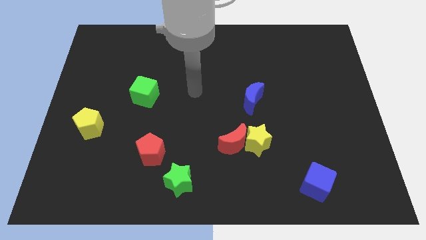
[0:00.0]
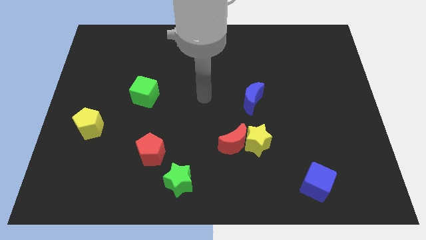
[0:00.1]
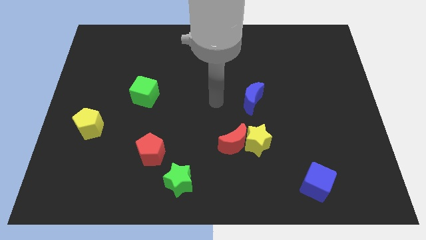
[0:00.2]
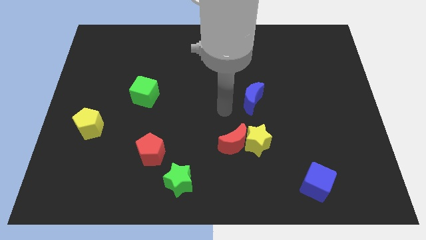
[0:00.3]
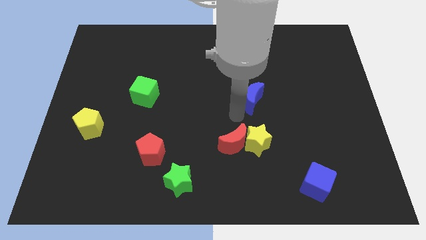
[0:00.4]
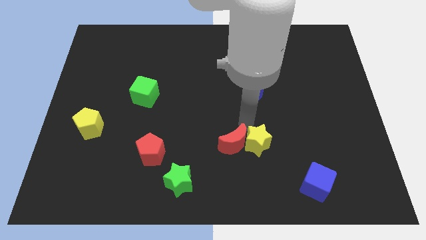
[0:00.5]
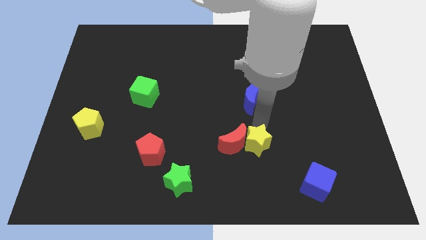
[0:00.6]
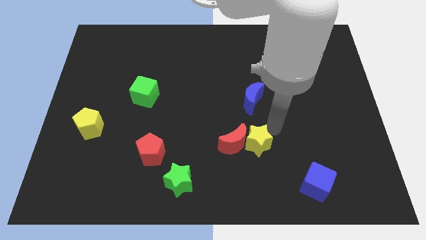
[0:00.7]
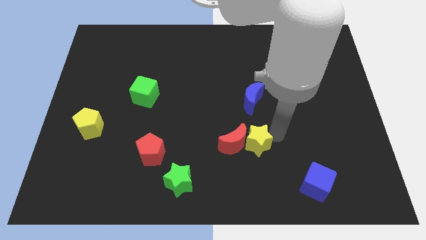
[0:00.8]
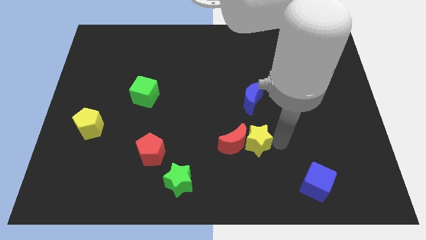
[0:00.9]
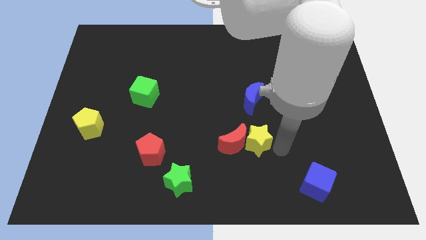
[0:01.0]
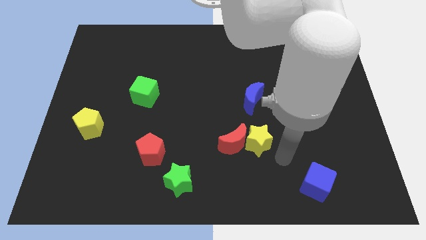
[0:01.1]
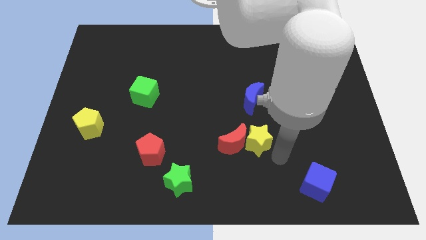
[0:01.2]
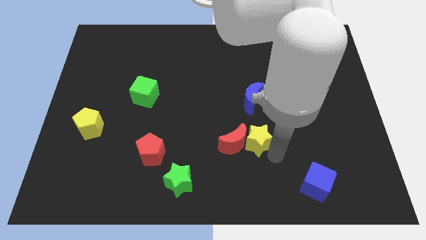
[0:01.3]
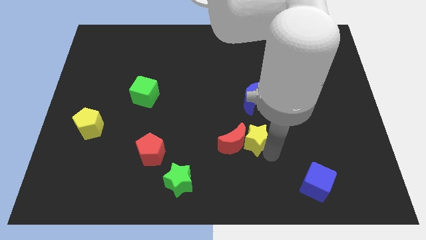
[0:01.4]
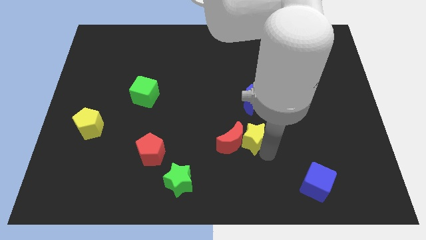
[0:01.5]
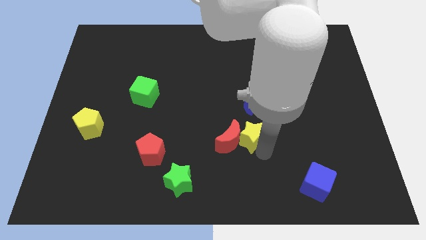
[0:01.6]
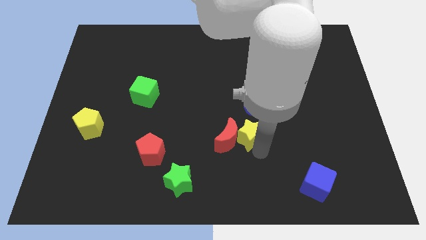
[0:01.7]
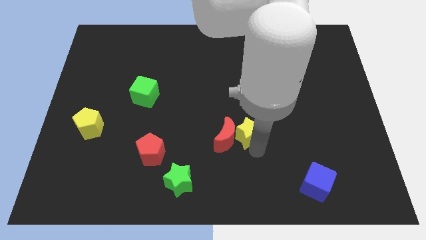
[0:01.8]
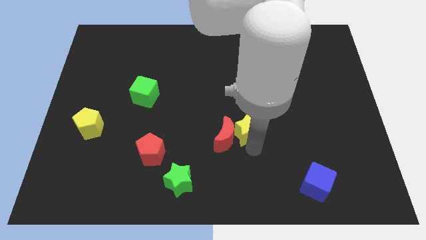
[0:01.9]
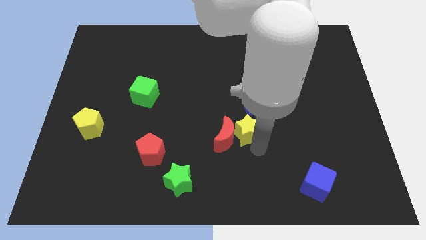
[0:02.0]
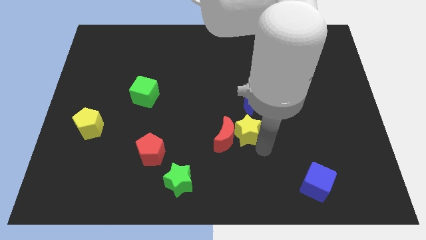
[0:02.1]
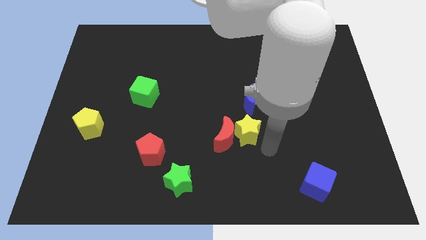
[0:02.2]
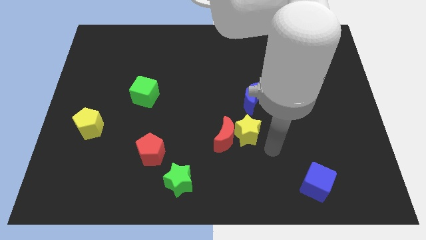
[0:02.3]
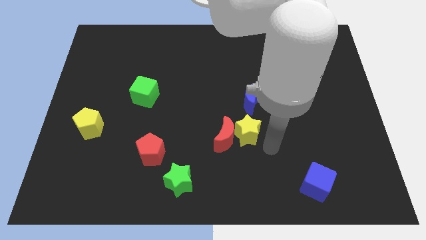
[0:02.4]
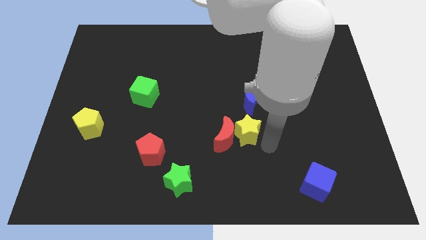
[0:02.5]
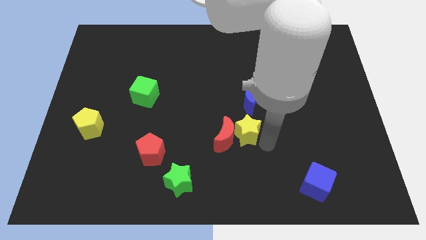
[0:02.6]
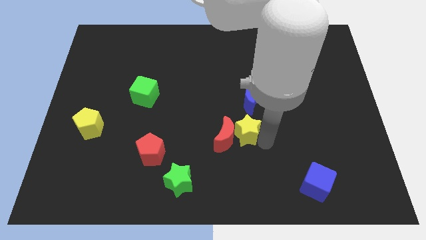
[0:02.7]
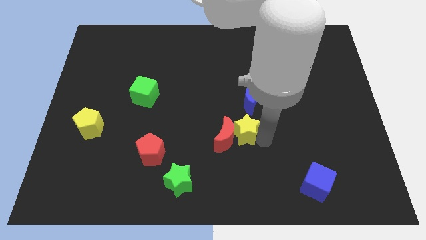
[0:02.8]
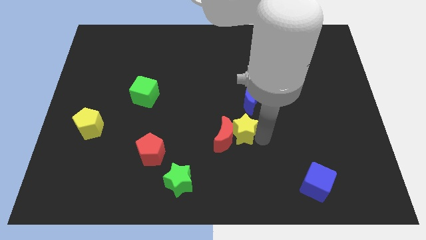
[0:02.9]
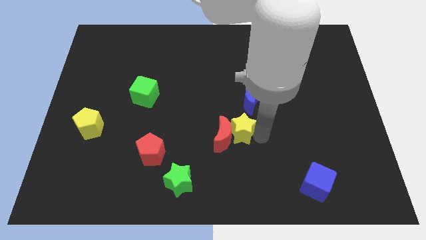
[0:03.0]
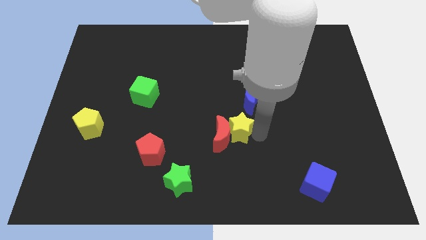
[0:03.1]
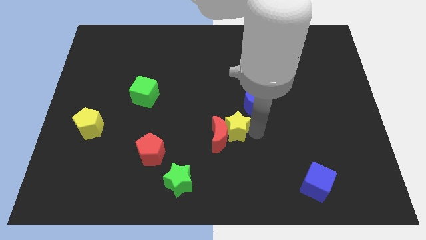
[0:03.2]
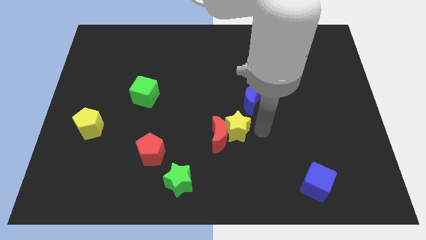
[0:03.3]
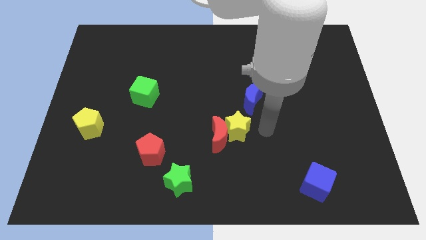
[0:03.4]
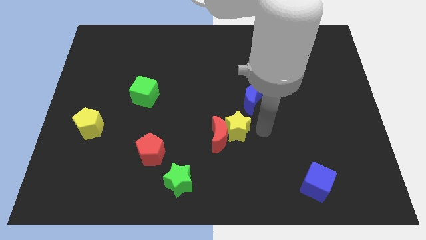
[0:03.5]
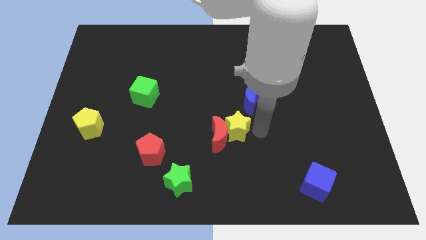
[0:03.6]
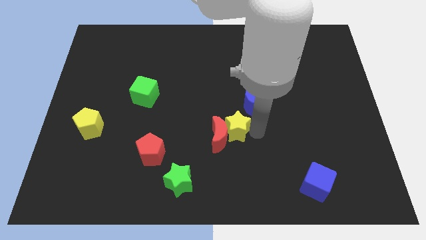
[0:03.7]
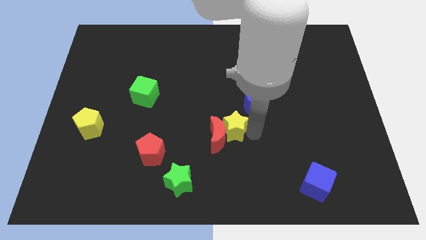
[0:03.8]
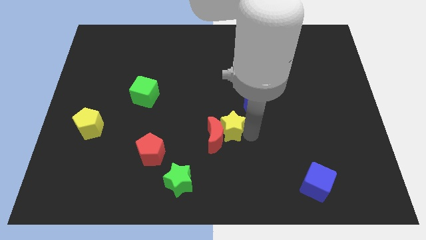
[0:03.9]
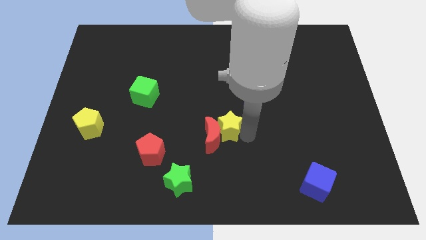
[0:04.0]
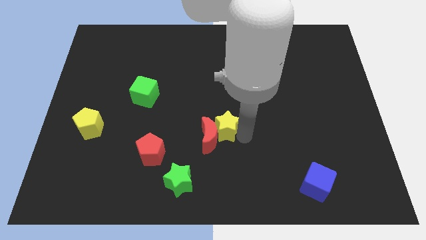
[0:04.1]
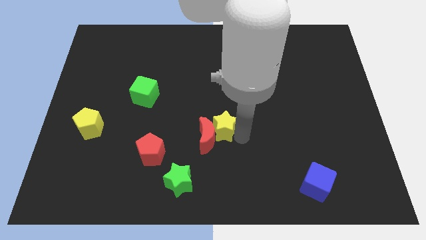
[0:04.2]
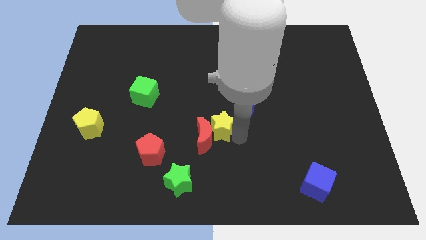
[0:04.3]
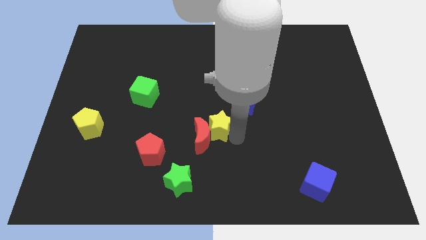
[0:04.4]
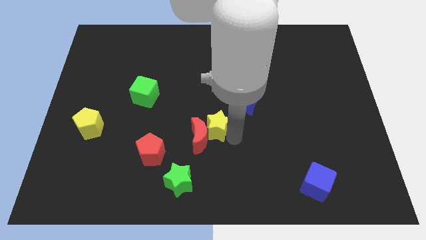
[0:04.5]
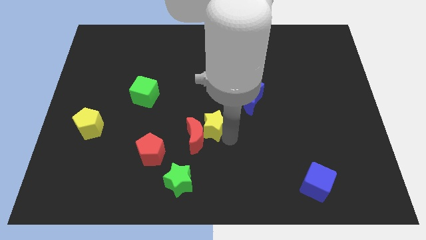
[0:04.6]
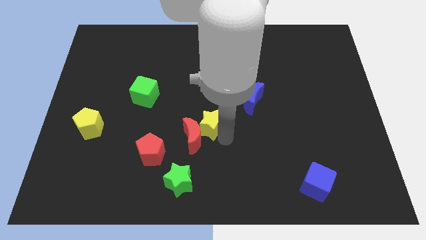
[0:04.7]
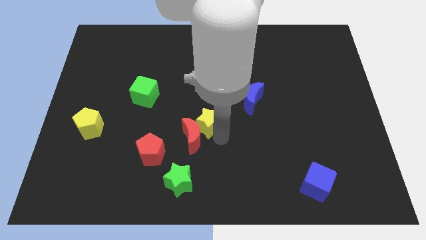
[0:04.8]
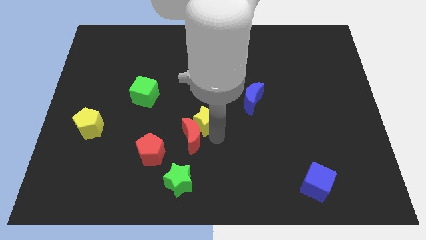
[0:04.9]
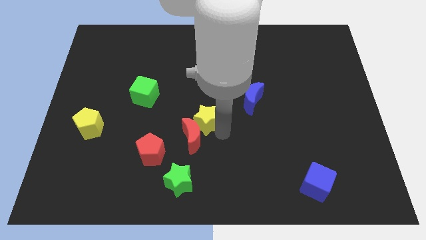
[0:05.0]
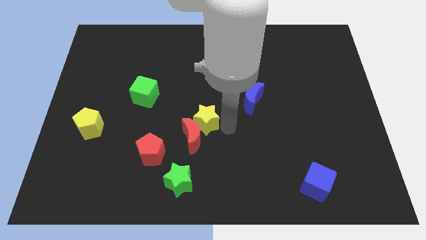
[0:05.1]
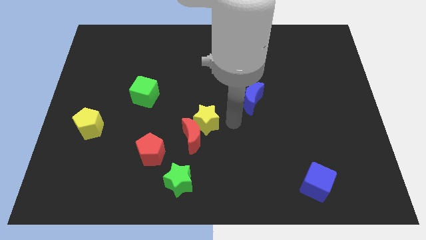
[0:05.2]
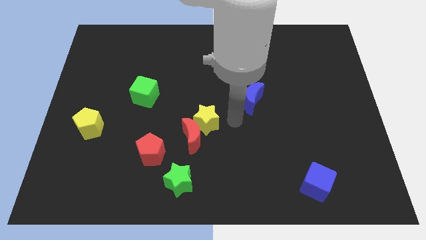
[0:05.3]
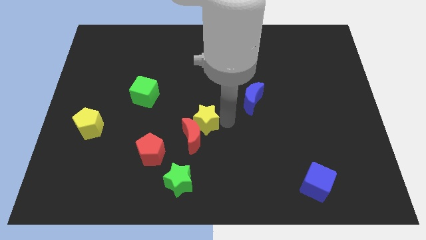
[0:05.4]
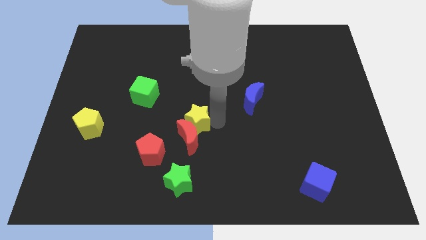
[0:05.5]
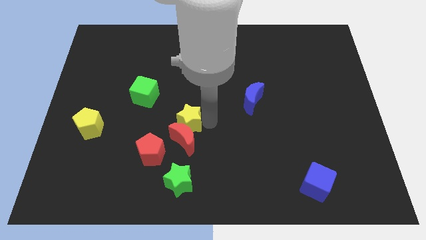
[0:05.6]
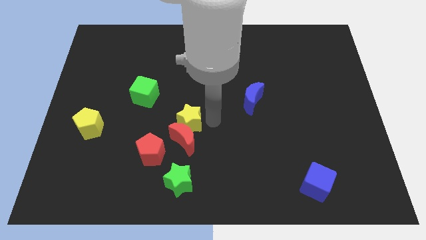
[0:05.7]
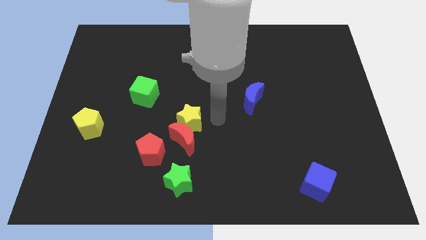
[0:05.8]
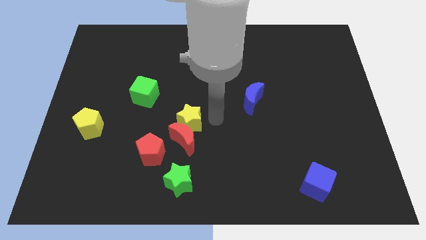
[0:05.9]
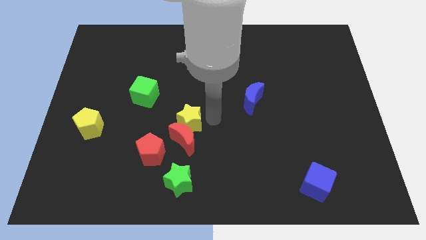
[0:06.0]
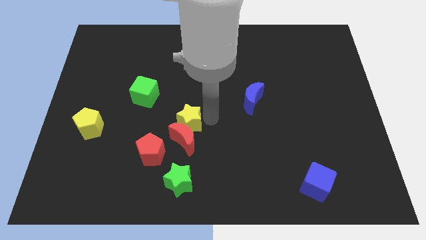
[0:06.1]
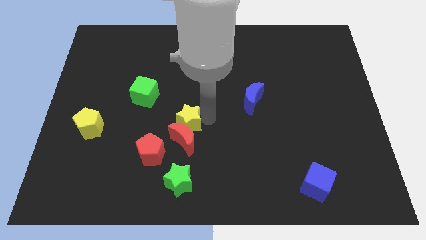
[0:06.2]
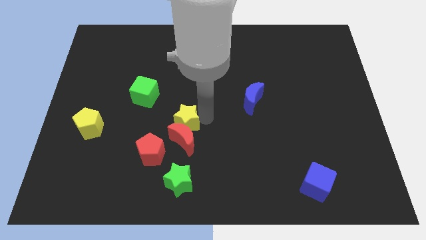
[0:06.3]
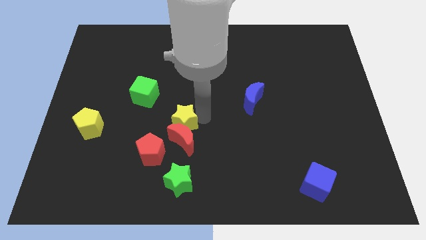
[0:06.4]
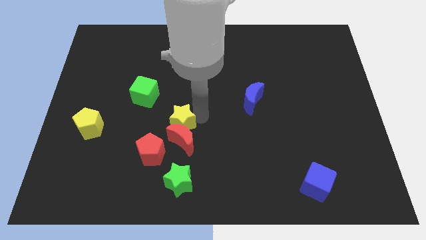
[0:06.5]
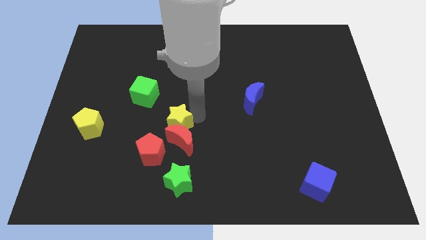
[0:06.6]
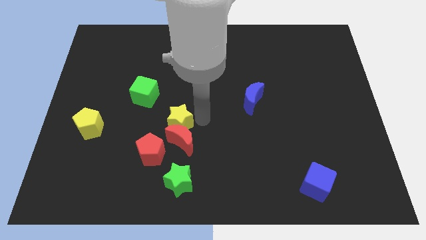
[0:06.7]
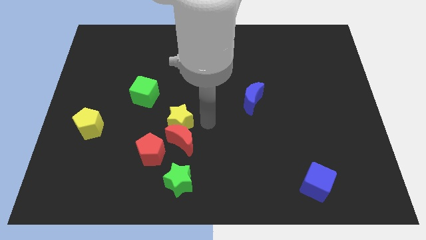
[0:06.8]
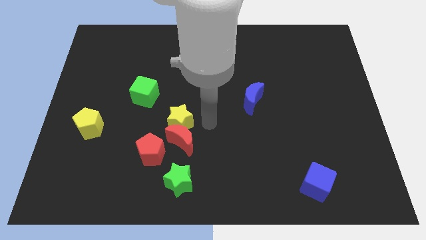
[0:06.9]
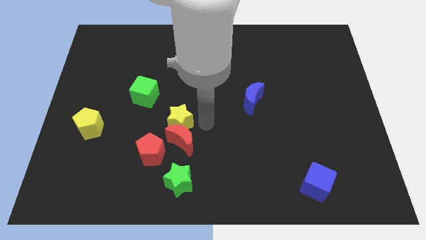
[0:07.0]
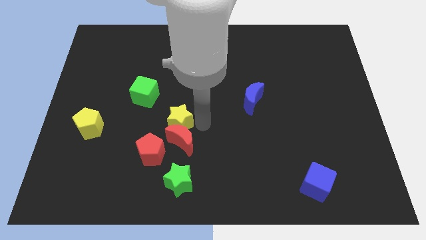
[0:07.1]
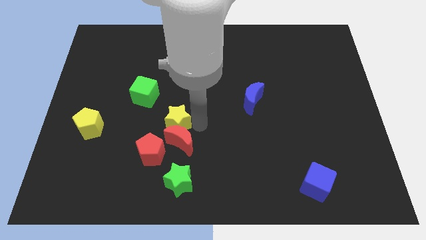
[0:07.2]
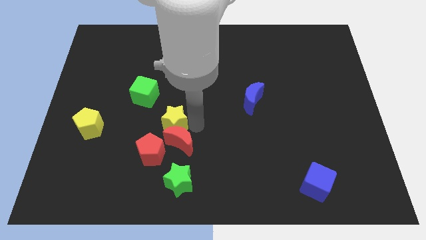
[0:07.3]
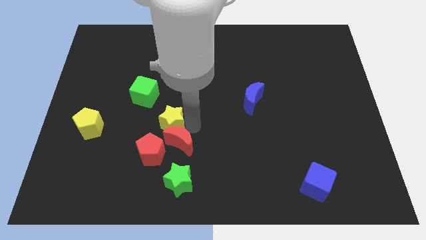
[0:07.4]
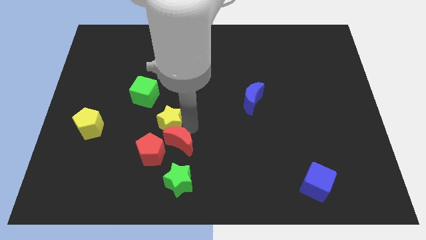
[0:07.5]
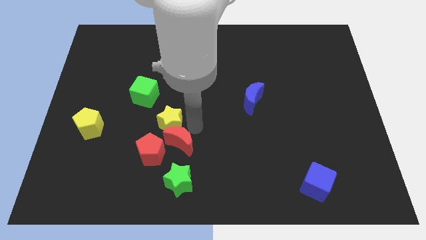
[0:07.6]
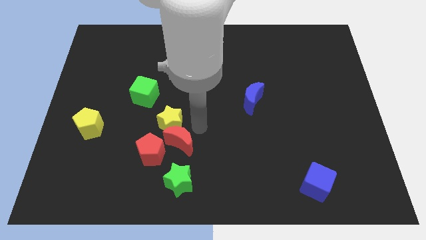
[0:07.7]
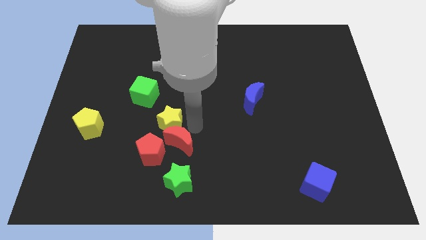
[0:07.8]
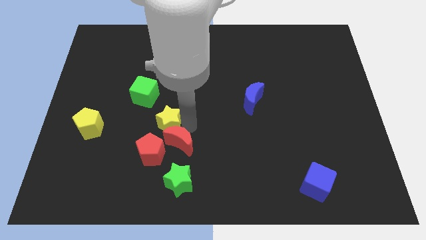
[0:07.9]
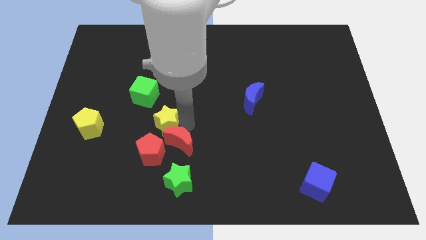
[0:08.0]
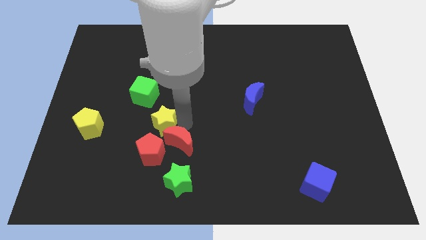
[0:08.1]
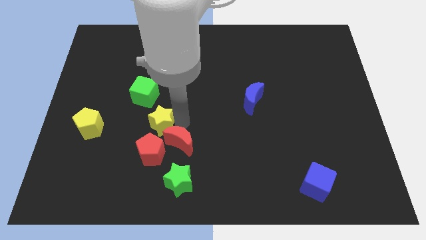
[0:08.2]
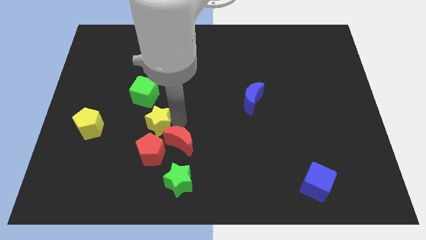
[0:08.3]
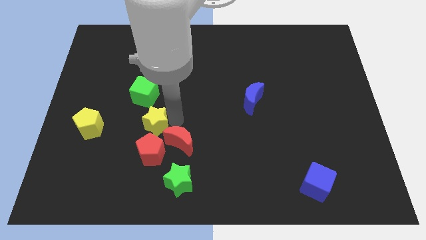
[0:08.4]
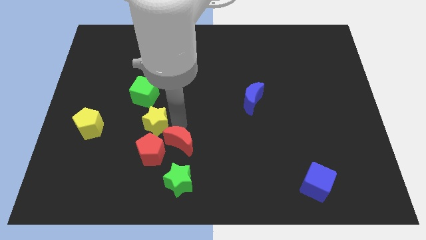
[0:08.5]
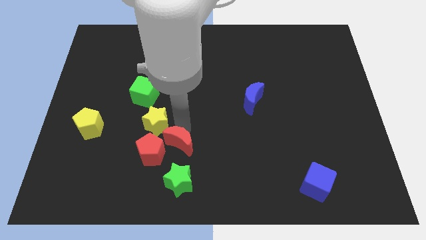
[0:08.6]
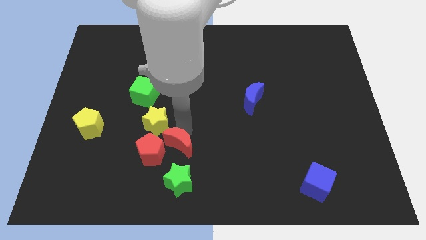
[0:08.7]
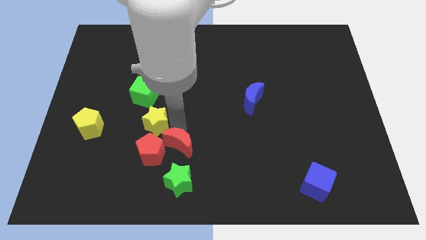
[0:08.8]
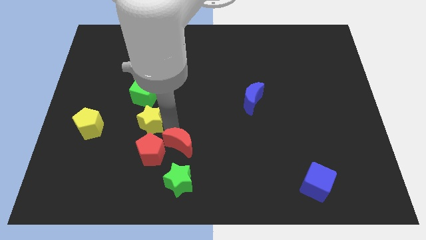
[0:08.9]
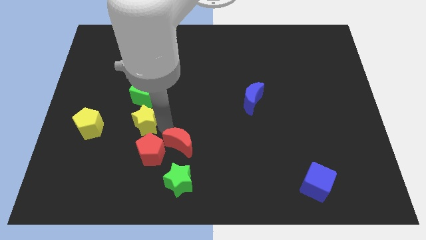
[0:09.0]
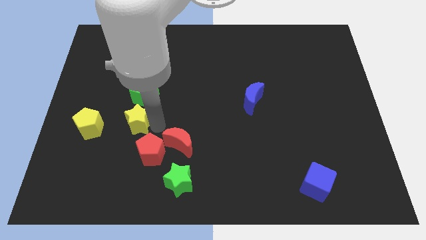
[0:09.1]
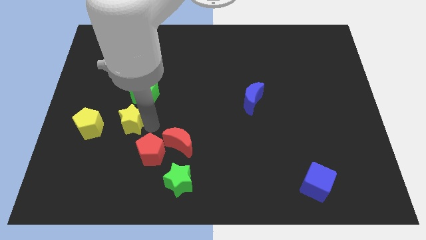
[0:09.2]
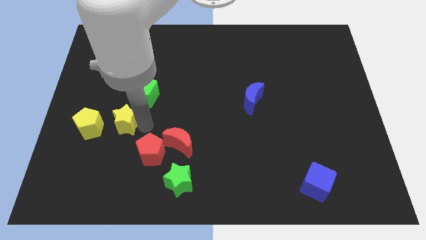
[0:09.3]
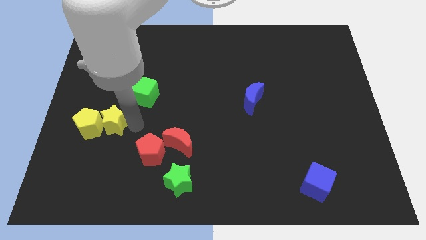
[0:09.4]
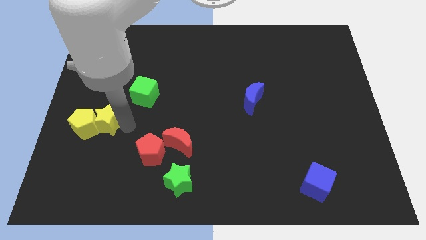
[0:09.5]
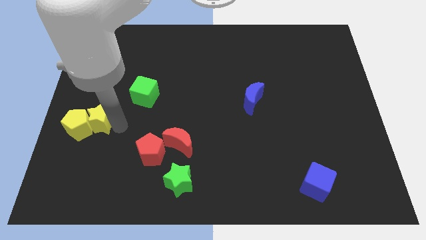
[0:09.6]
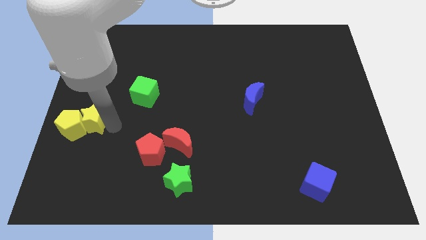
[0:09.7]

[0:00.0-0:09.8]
put the yellow star to the center left
